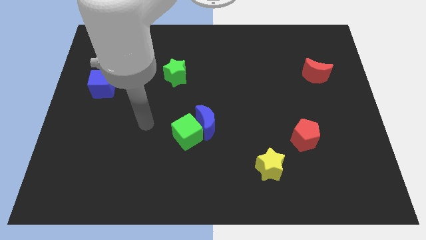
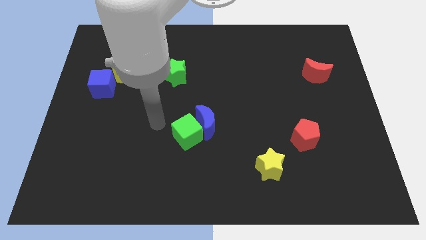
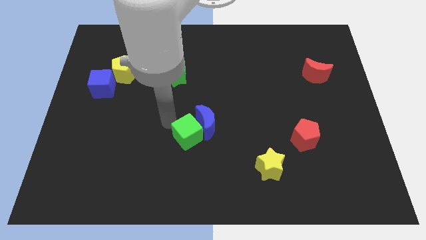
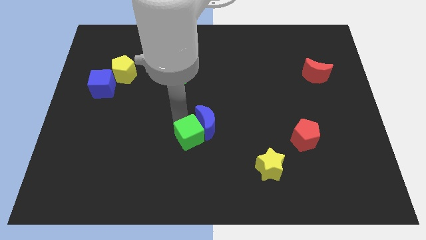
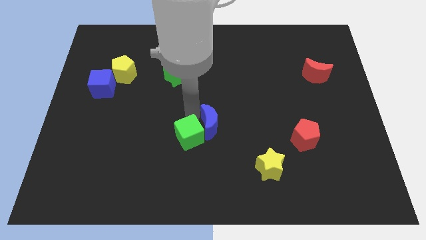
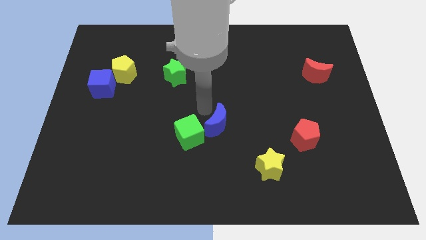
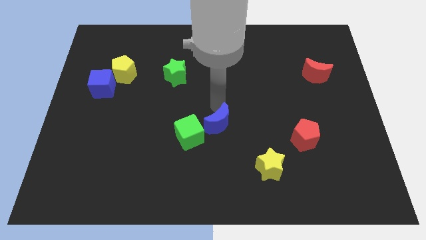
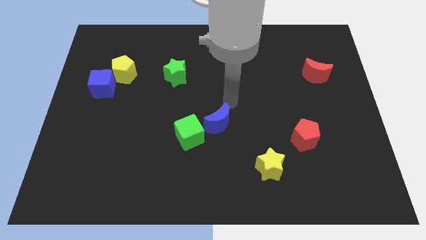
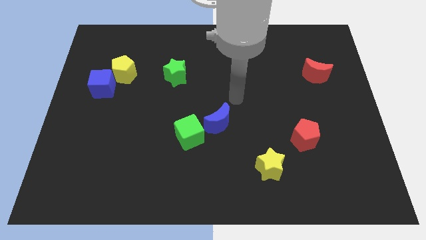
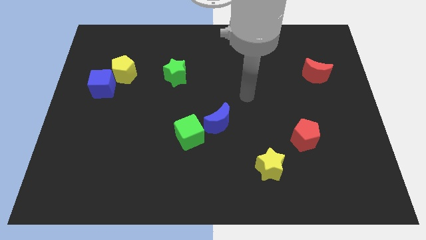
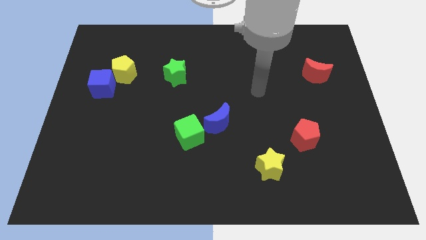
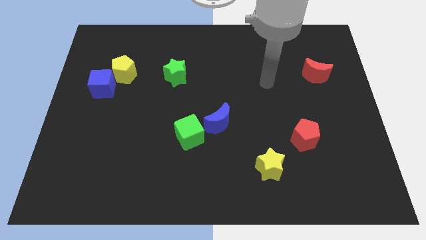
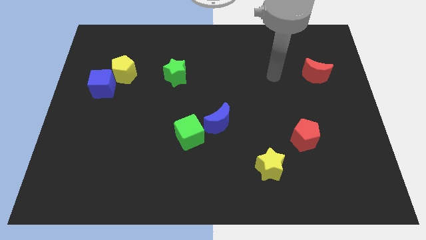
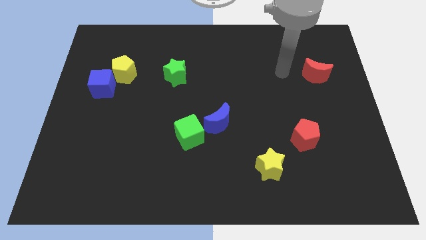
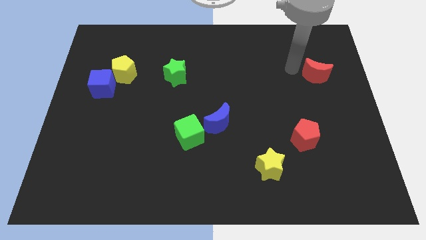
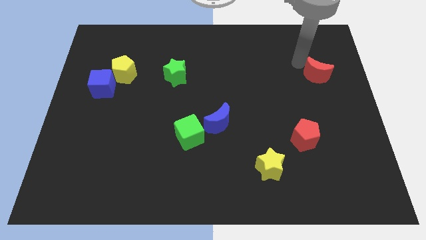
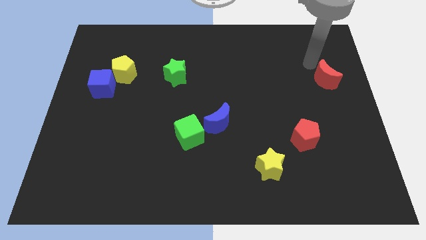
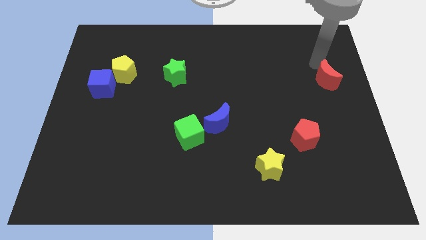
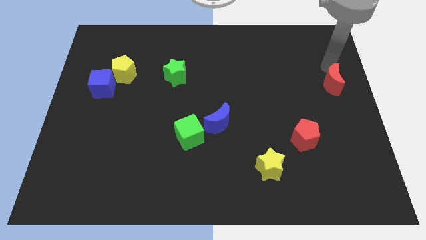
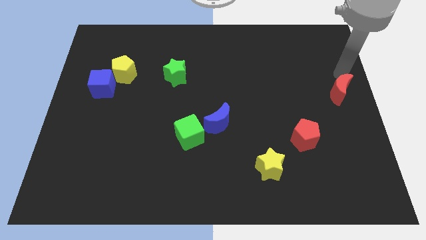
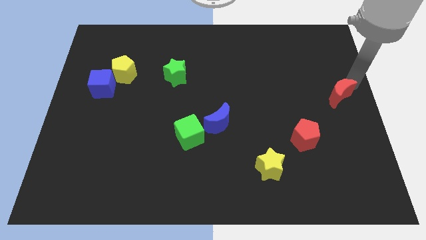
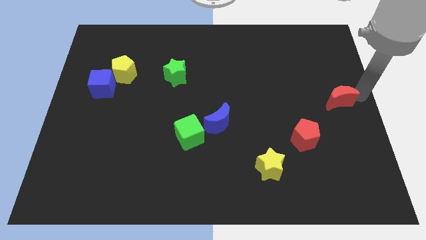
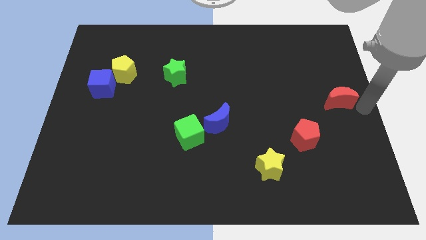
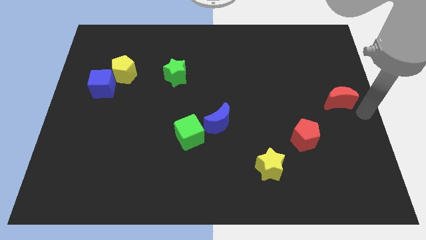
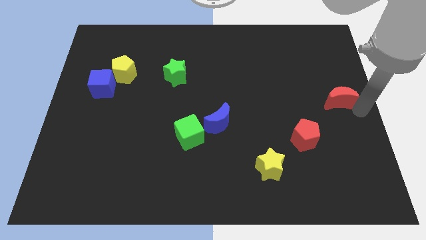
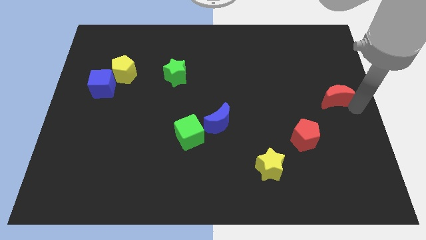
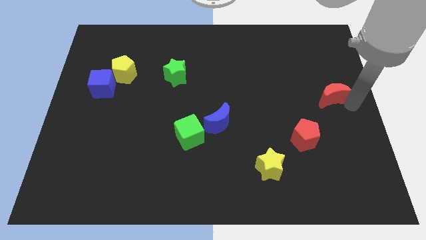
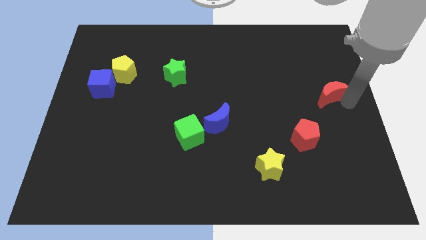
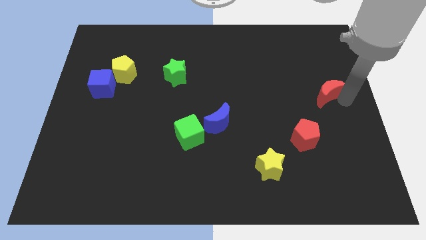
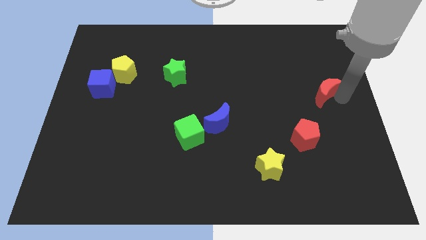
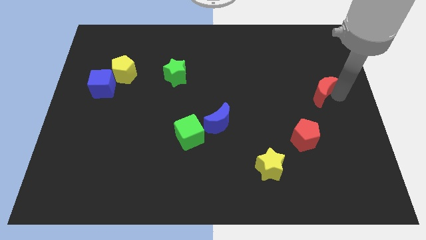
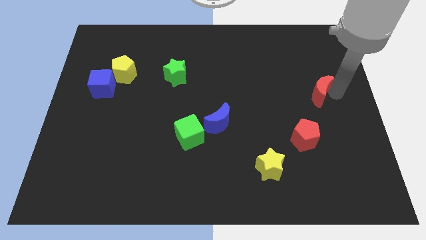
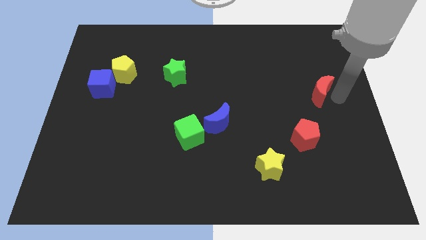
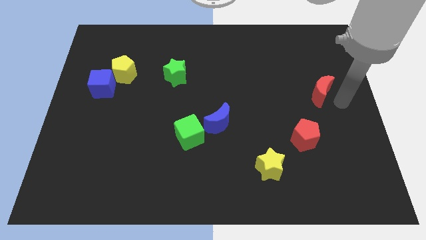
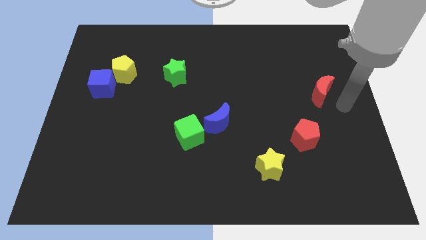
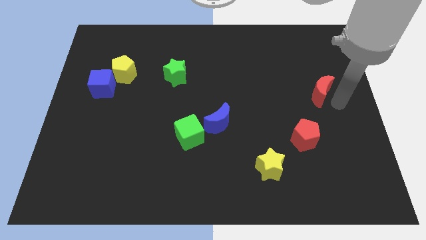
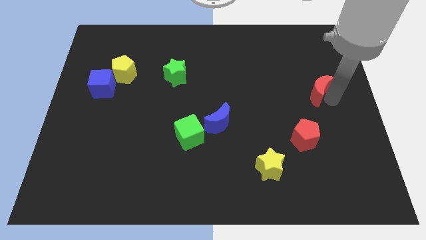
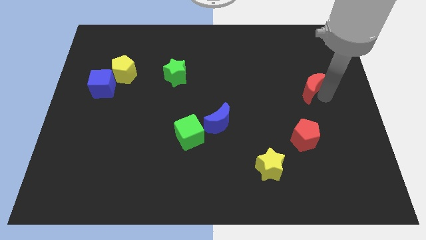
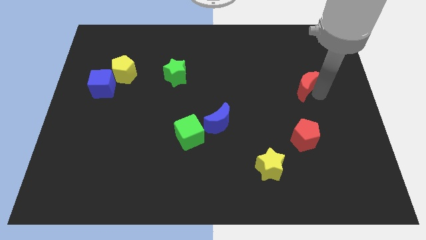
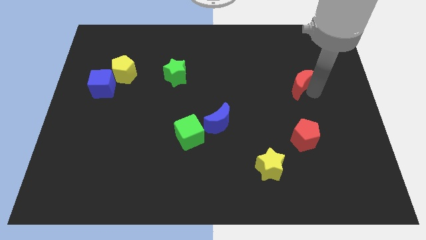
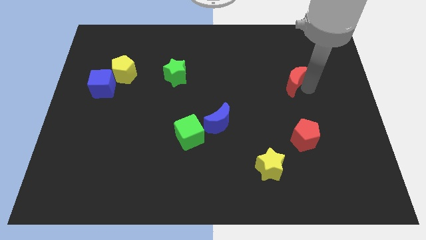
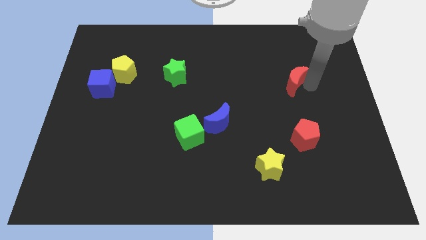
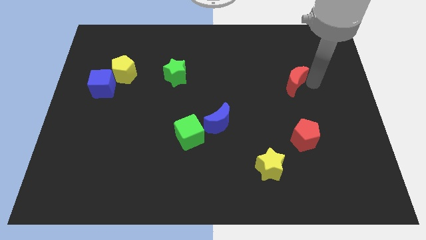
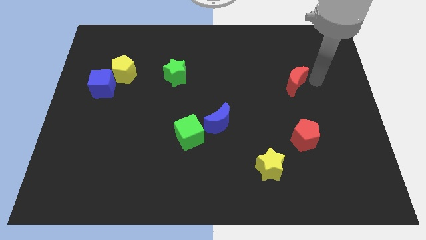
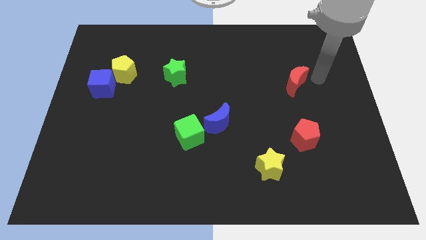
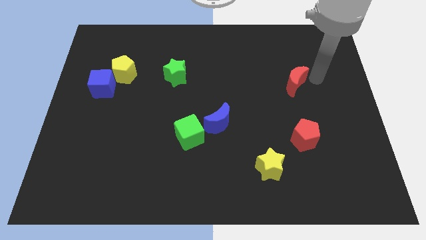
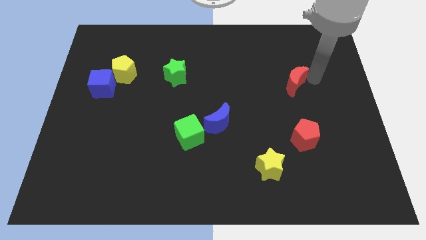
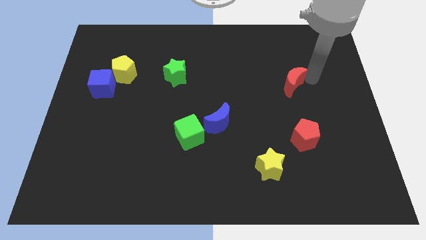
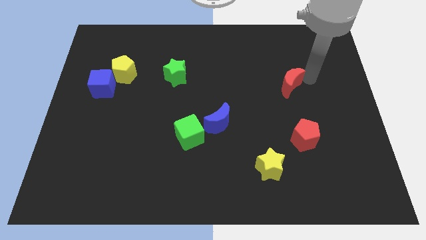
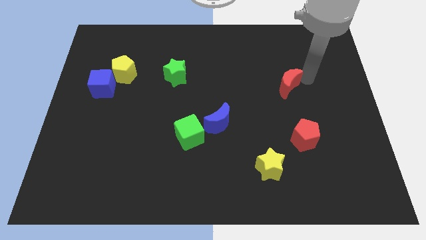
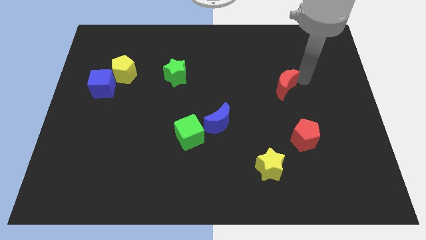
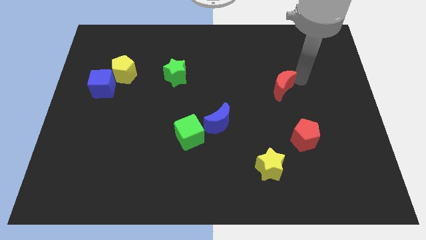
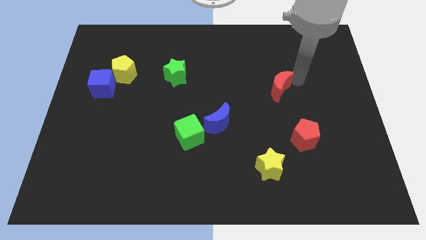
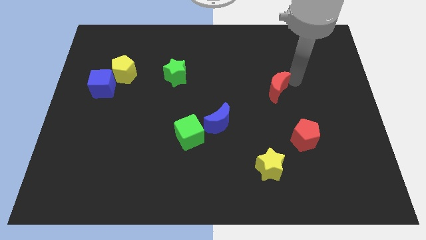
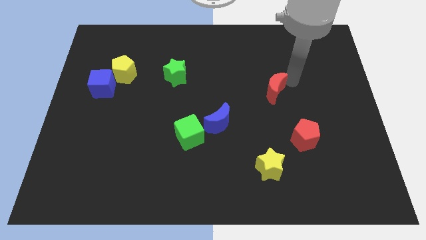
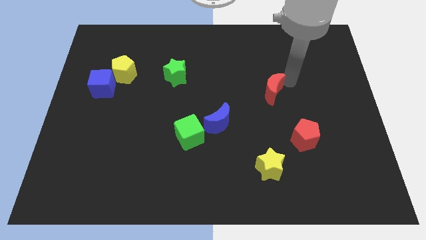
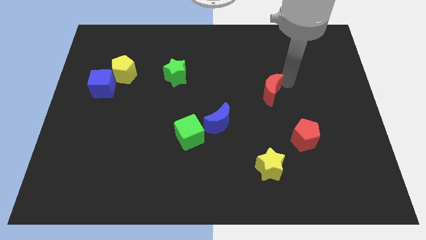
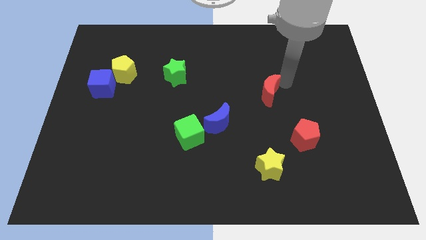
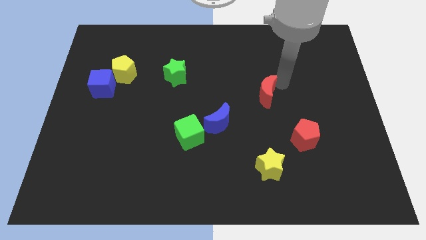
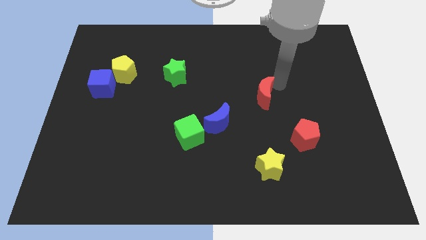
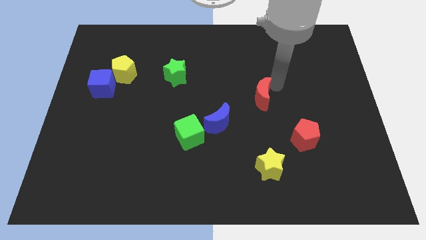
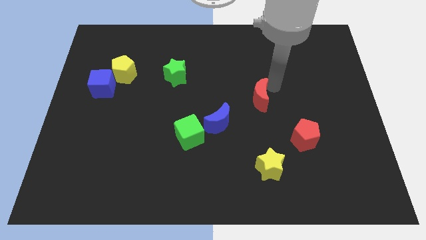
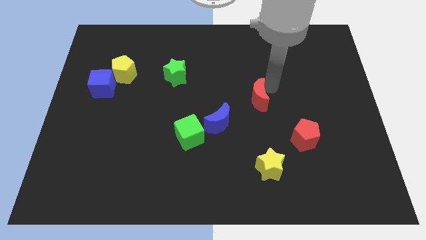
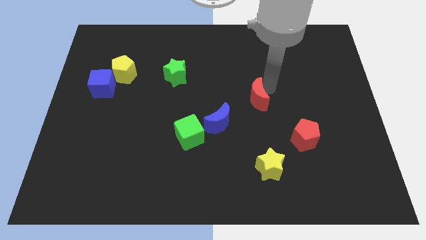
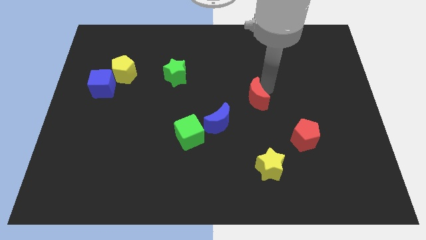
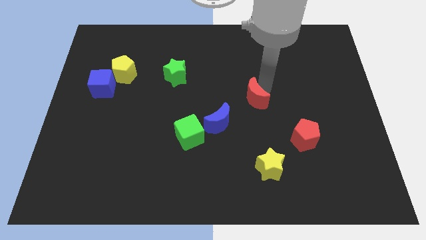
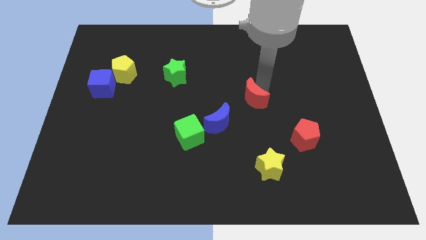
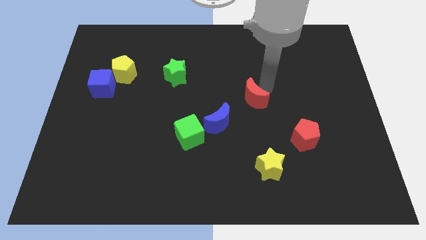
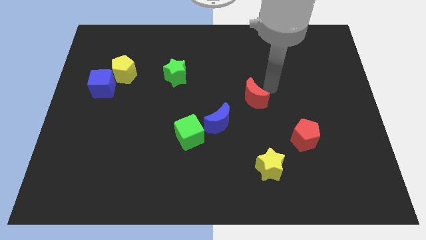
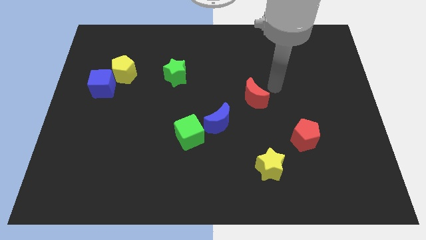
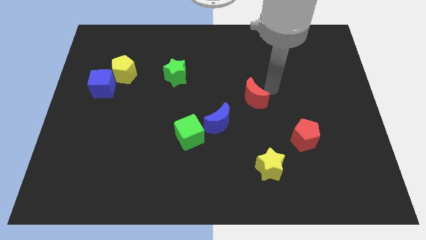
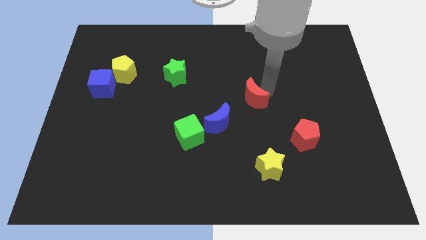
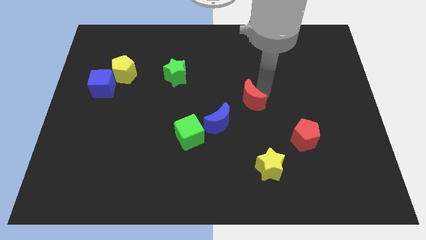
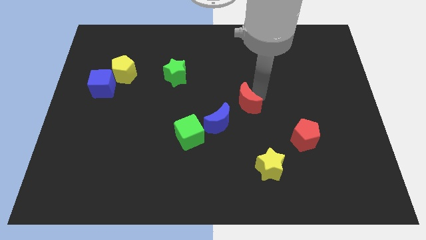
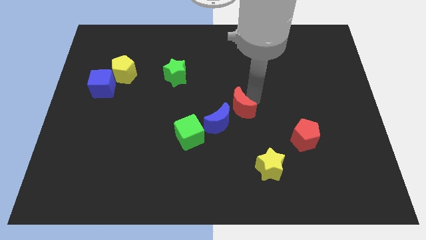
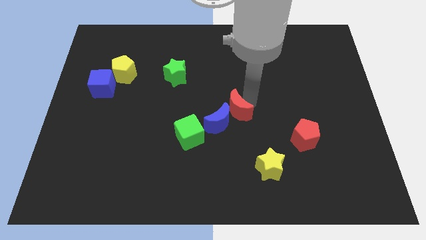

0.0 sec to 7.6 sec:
move the red moon close to the blue moon
